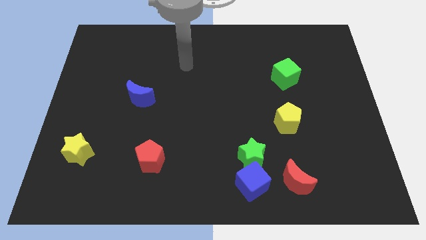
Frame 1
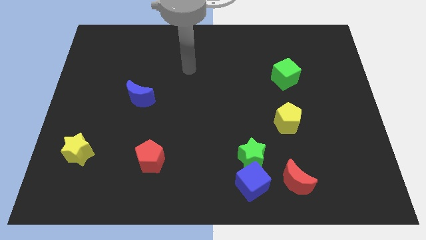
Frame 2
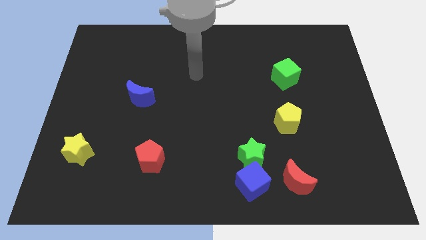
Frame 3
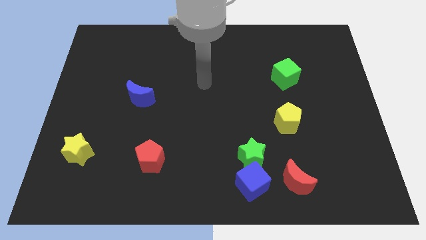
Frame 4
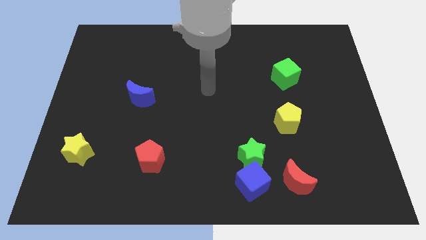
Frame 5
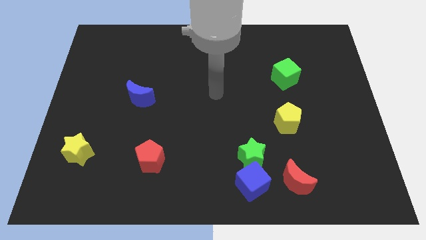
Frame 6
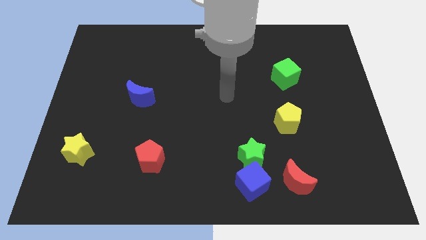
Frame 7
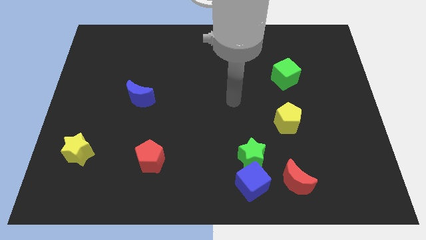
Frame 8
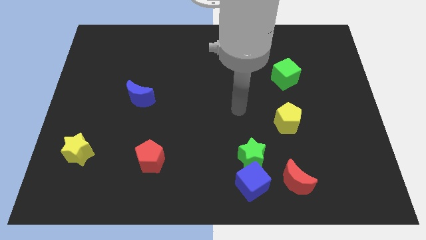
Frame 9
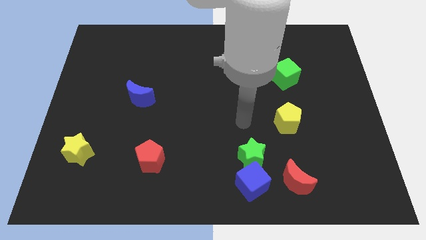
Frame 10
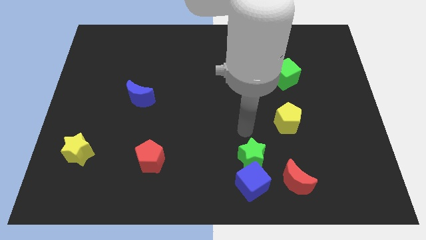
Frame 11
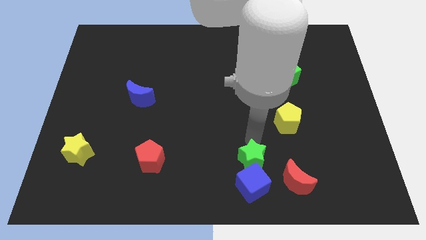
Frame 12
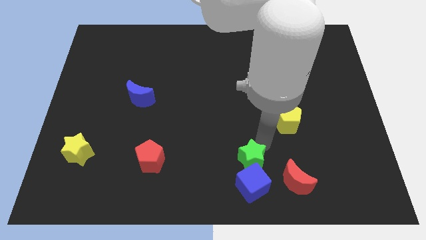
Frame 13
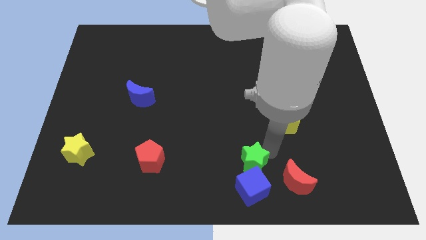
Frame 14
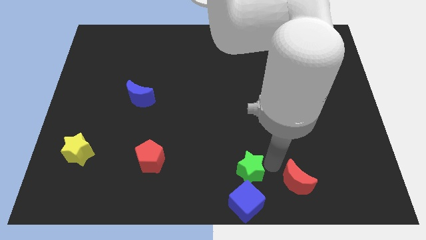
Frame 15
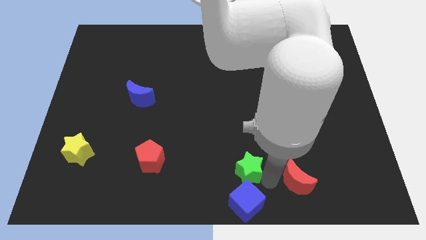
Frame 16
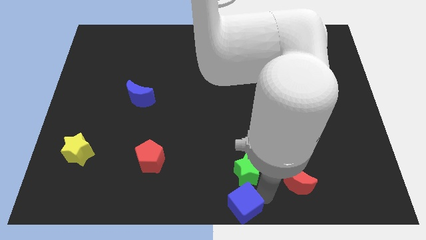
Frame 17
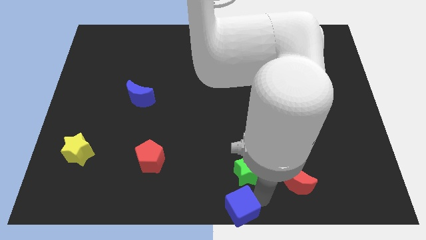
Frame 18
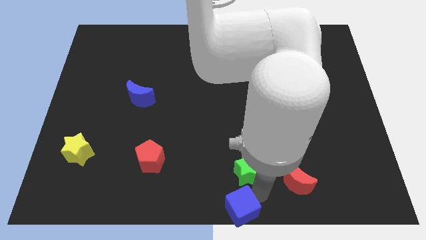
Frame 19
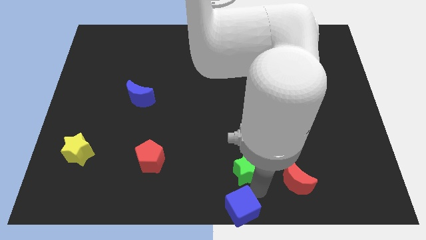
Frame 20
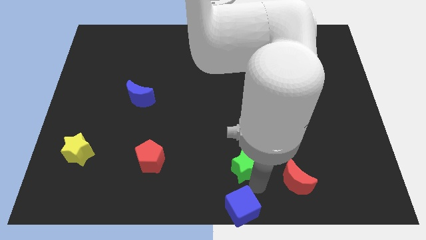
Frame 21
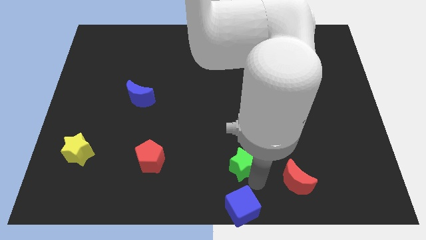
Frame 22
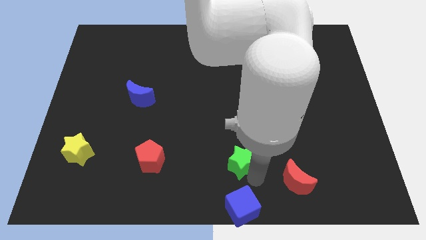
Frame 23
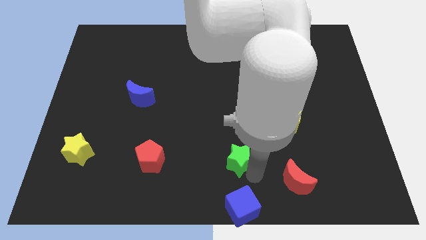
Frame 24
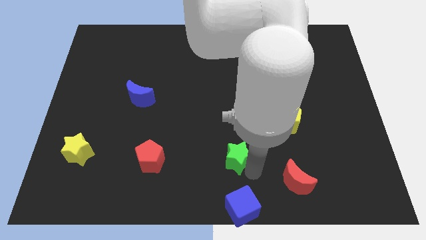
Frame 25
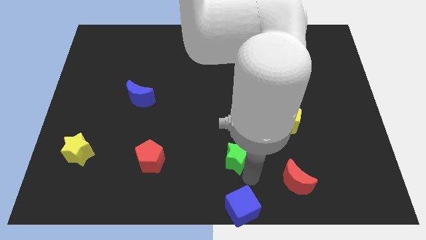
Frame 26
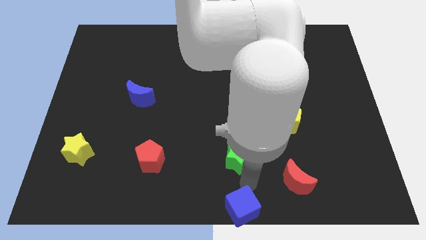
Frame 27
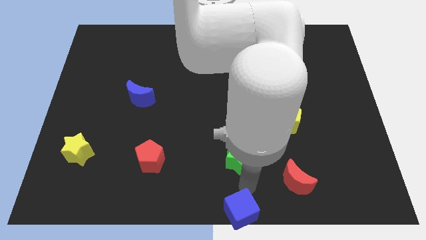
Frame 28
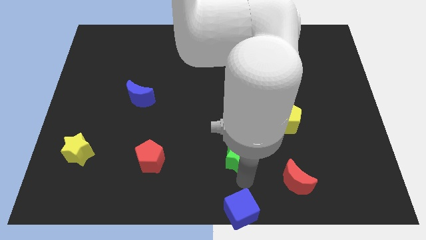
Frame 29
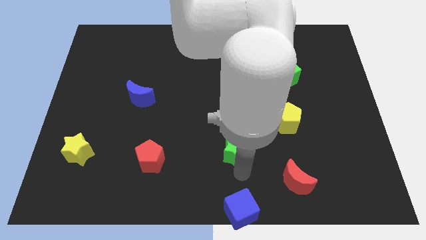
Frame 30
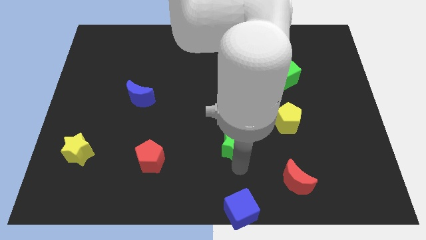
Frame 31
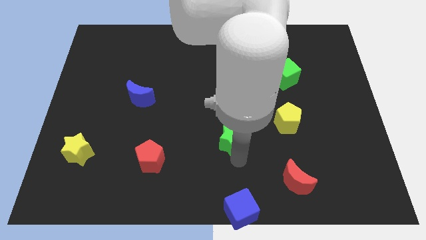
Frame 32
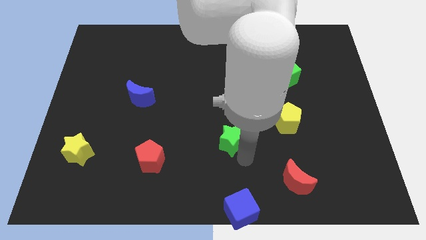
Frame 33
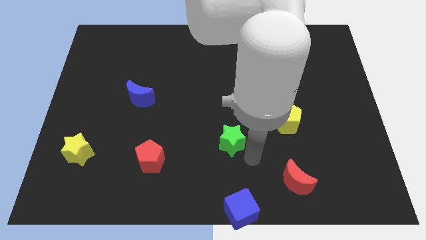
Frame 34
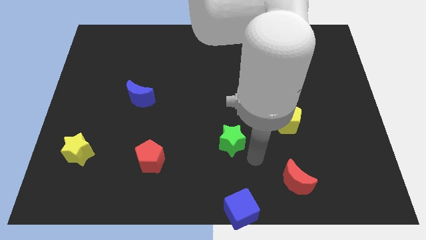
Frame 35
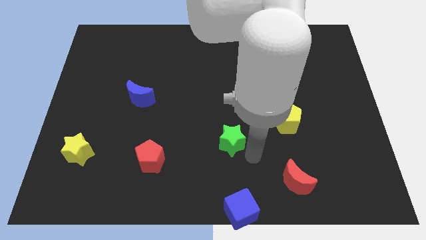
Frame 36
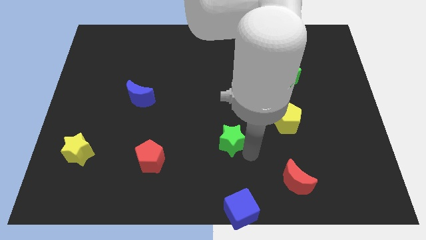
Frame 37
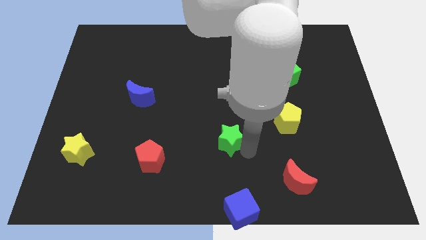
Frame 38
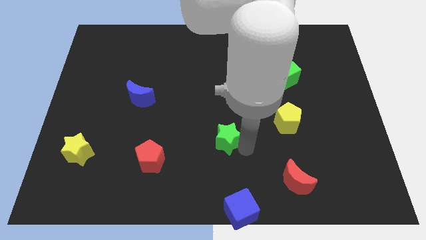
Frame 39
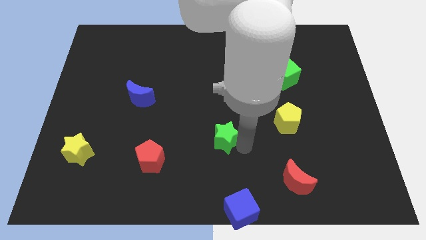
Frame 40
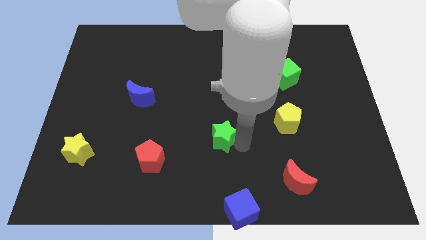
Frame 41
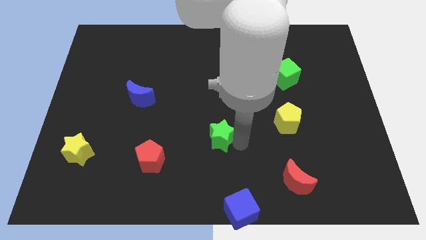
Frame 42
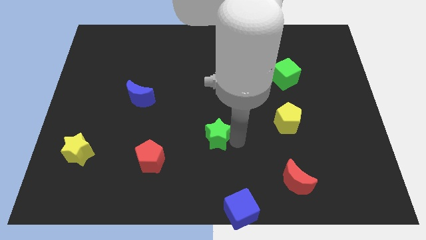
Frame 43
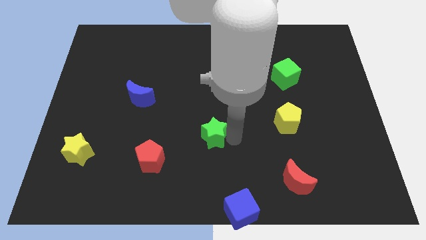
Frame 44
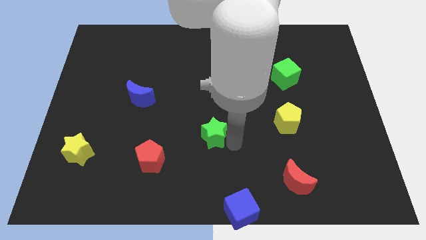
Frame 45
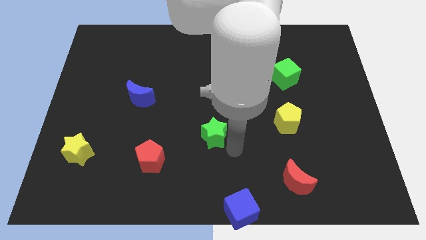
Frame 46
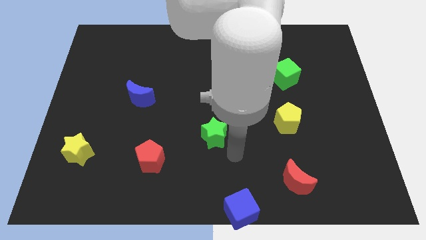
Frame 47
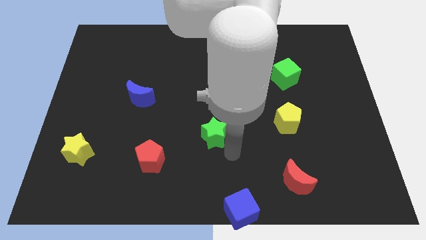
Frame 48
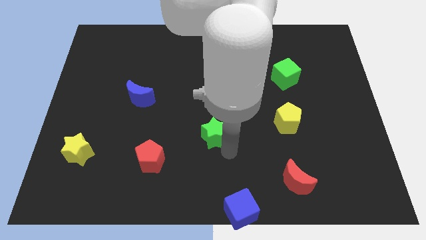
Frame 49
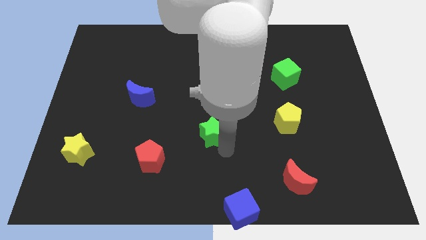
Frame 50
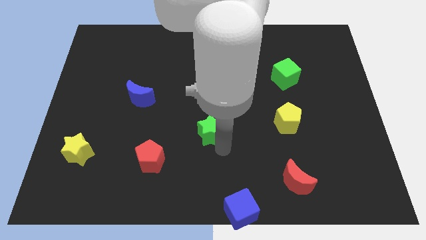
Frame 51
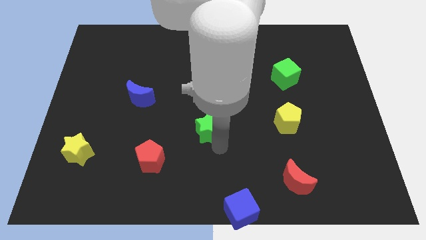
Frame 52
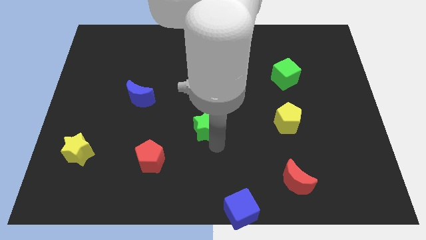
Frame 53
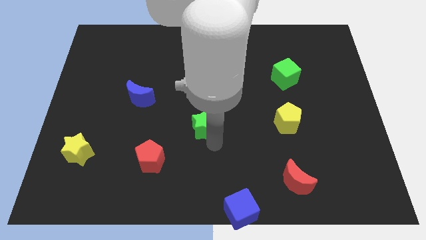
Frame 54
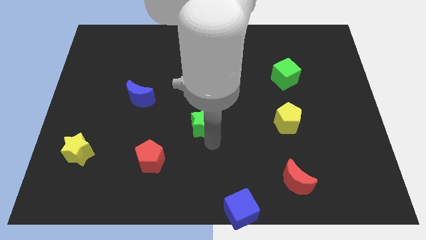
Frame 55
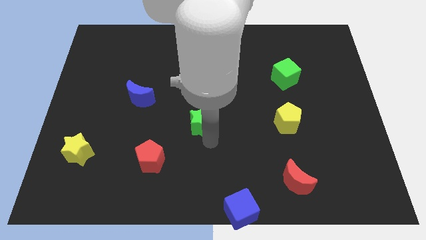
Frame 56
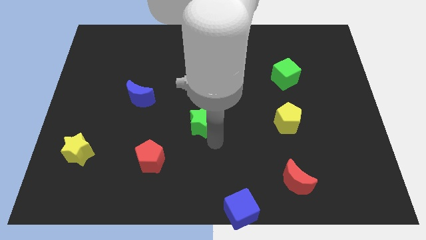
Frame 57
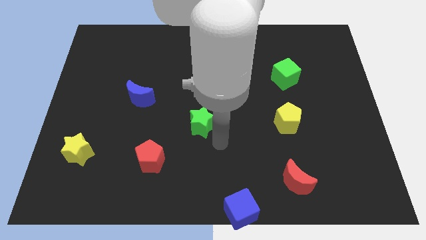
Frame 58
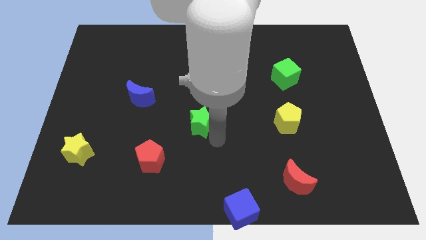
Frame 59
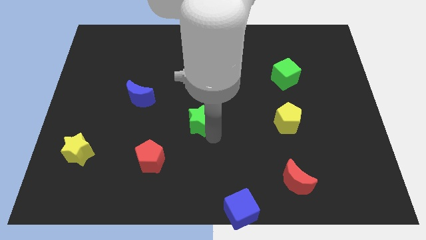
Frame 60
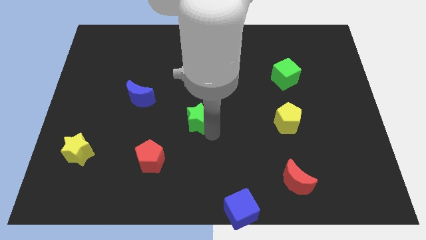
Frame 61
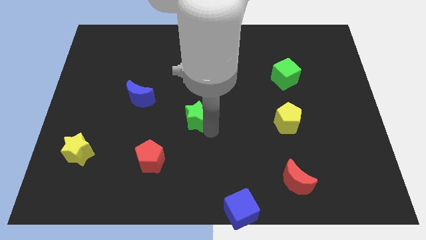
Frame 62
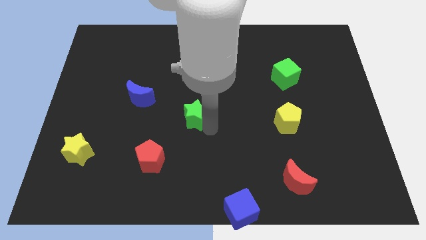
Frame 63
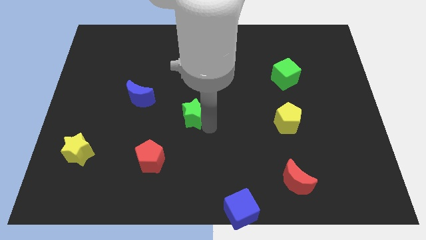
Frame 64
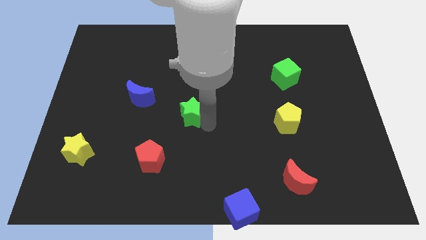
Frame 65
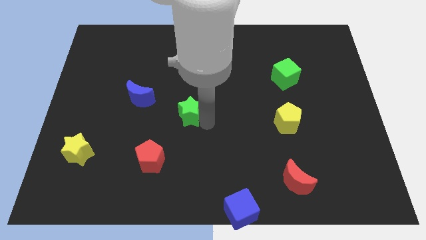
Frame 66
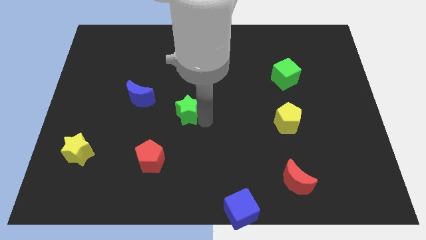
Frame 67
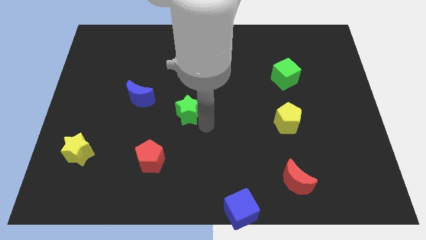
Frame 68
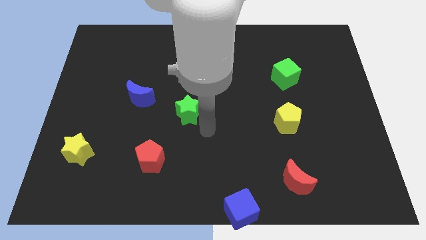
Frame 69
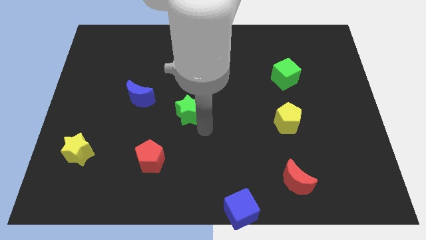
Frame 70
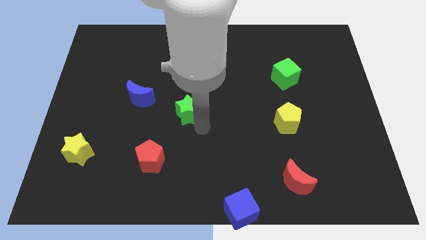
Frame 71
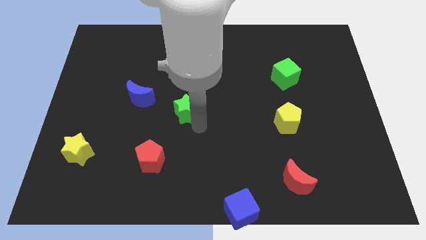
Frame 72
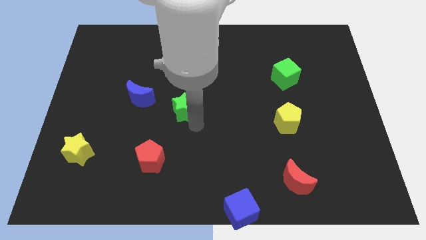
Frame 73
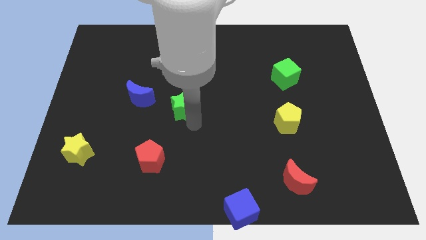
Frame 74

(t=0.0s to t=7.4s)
move the green star up and then to the left

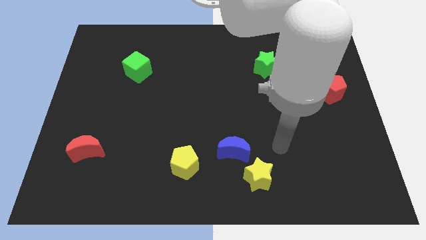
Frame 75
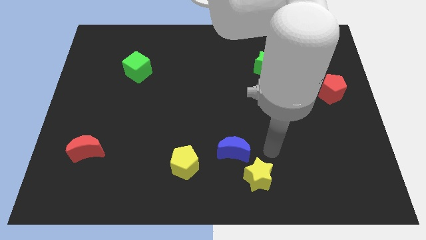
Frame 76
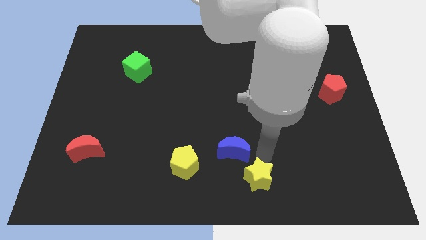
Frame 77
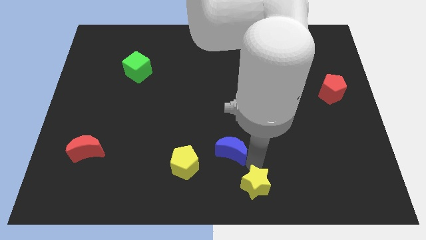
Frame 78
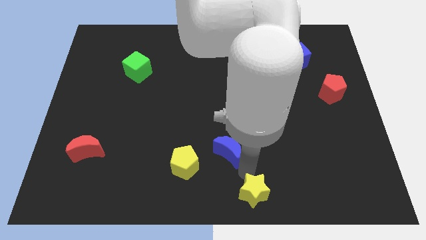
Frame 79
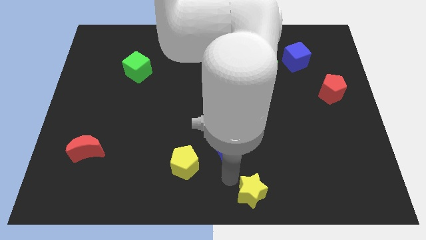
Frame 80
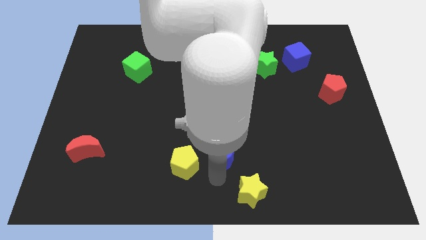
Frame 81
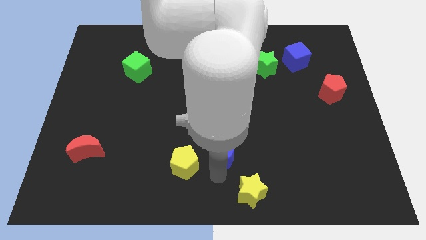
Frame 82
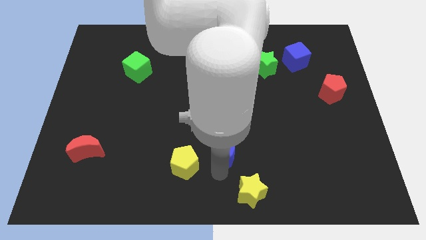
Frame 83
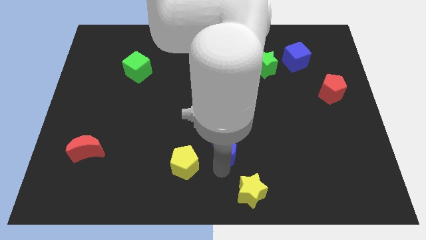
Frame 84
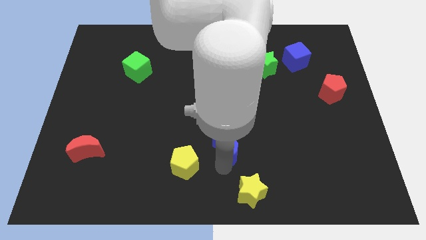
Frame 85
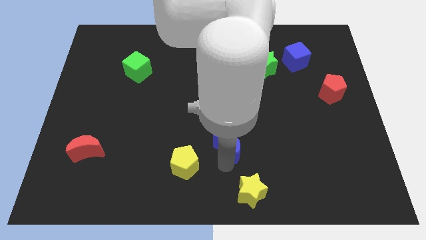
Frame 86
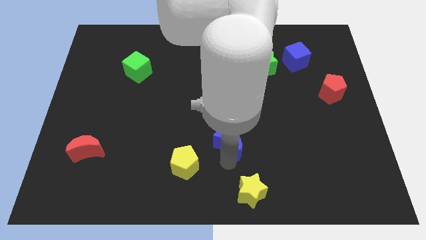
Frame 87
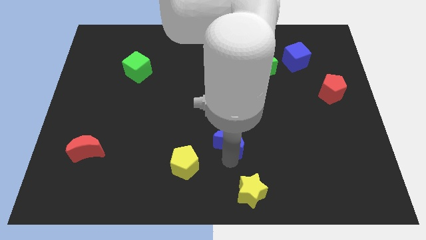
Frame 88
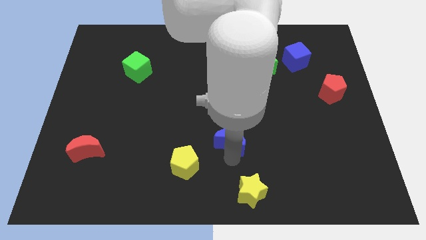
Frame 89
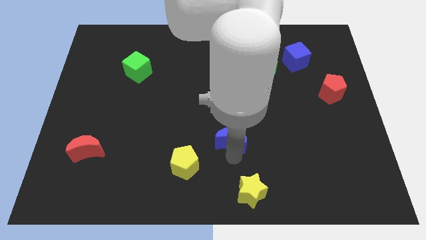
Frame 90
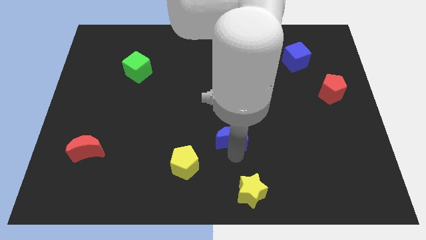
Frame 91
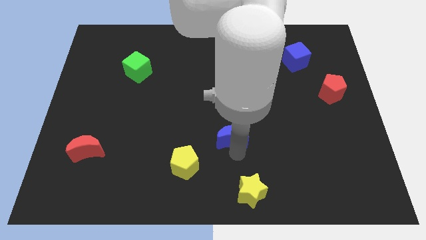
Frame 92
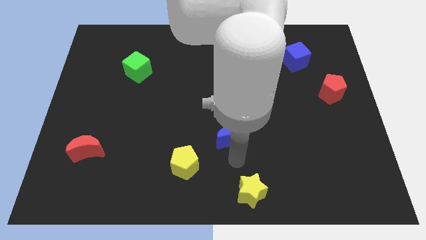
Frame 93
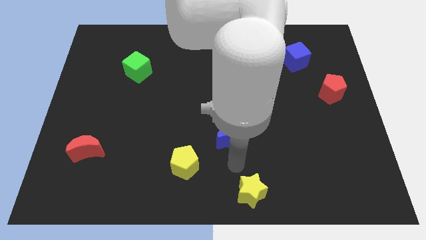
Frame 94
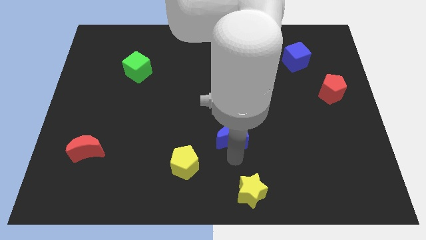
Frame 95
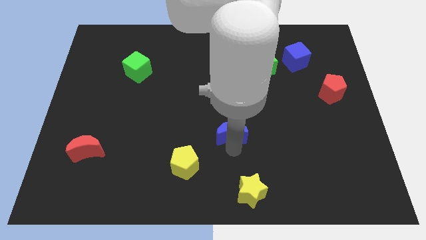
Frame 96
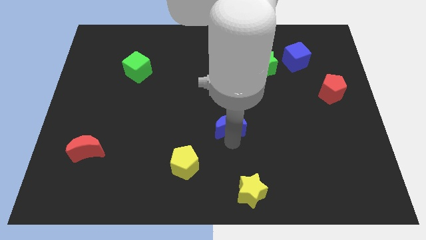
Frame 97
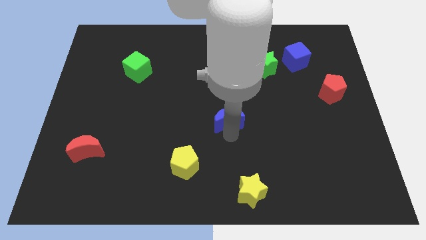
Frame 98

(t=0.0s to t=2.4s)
slide the blue moon a bit up
